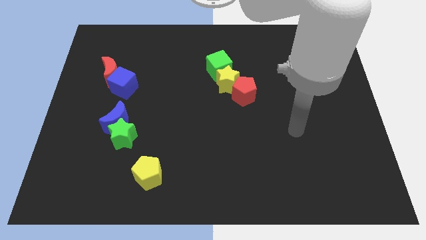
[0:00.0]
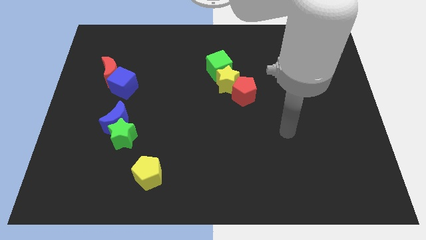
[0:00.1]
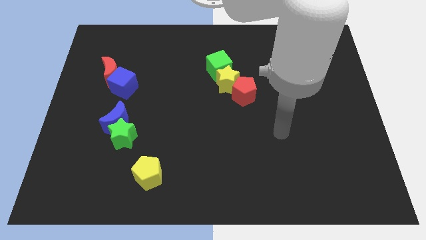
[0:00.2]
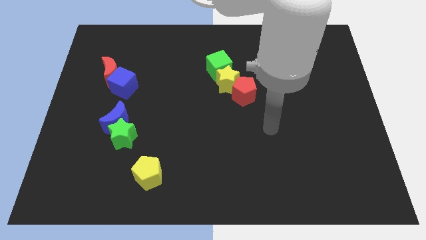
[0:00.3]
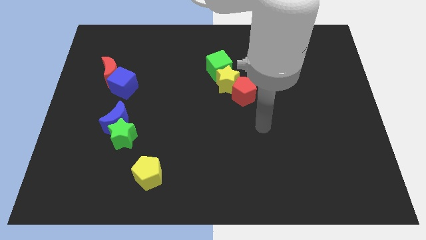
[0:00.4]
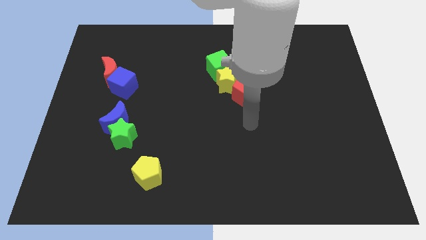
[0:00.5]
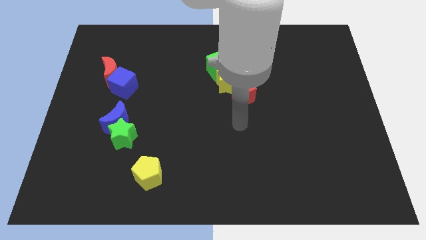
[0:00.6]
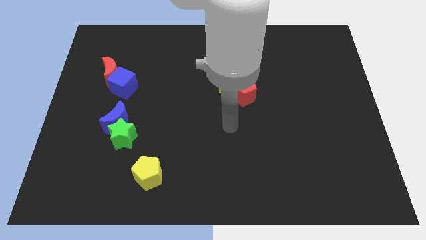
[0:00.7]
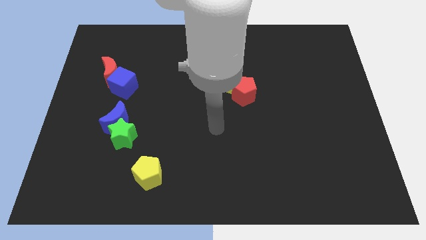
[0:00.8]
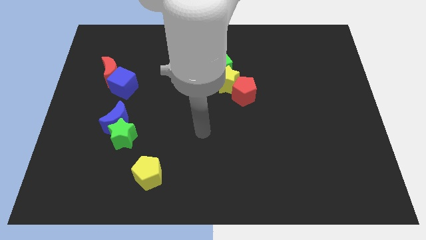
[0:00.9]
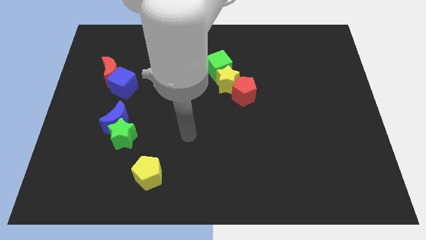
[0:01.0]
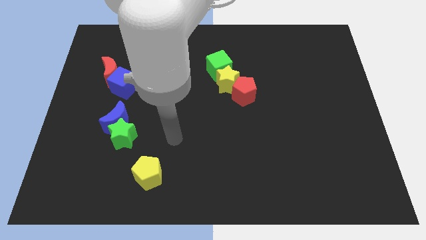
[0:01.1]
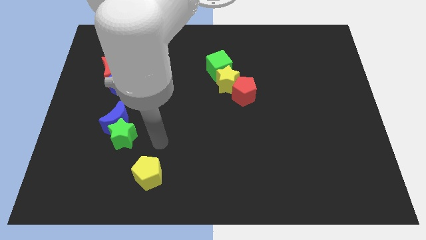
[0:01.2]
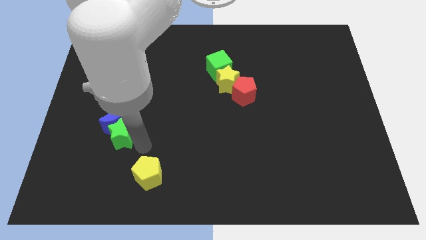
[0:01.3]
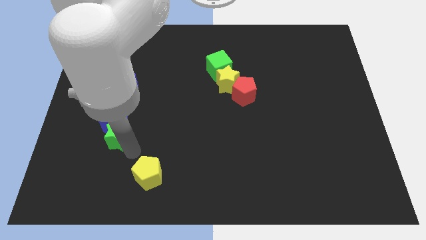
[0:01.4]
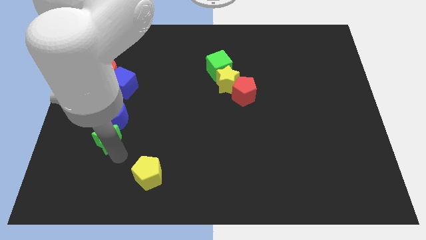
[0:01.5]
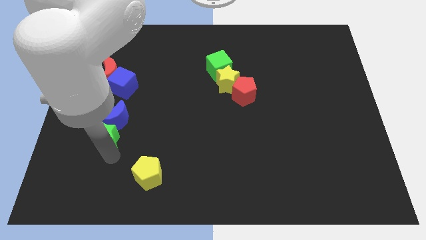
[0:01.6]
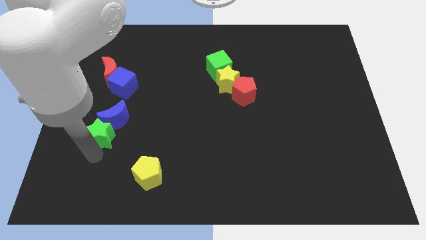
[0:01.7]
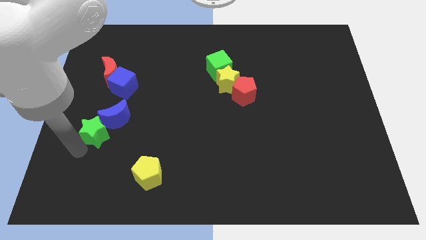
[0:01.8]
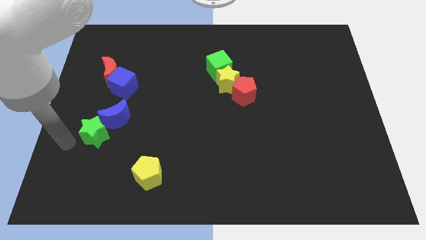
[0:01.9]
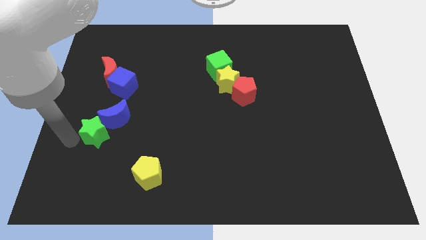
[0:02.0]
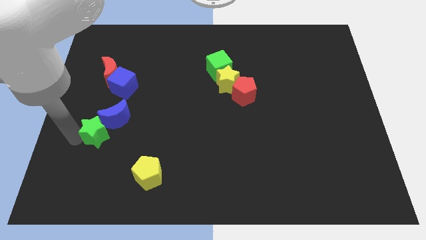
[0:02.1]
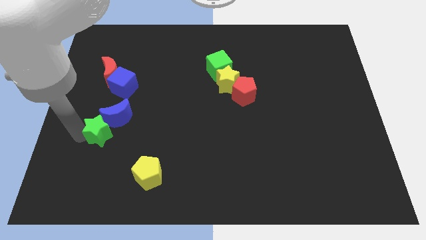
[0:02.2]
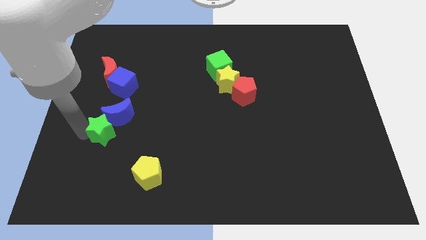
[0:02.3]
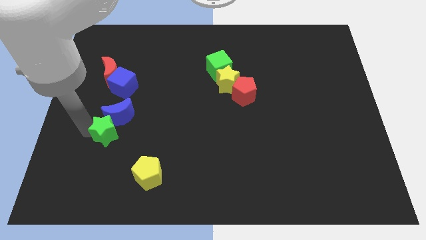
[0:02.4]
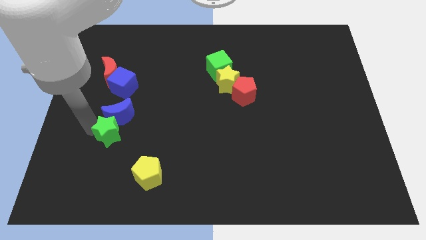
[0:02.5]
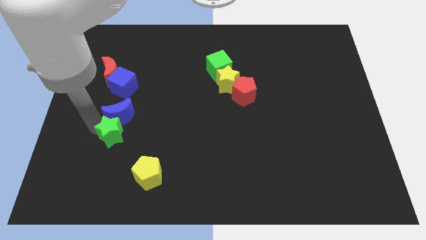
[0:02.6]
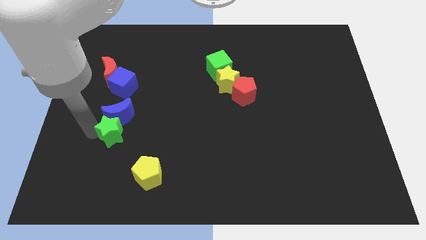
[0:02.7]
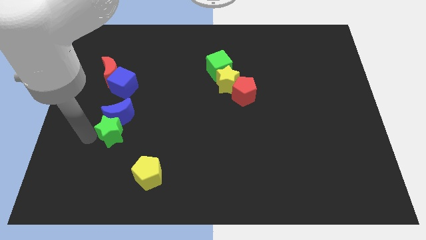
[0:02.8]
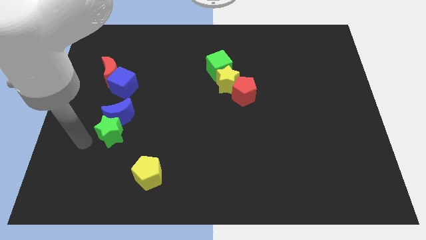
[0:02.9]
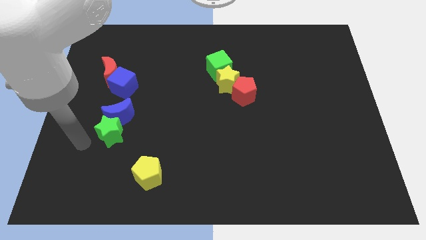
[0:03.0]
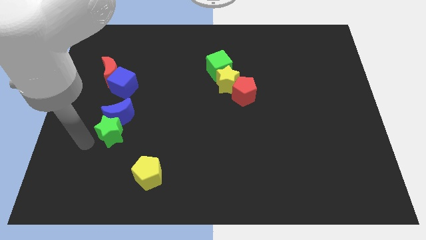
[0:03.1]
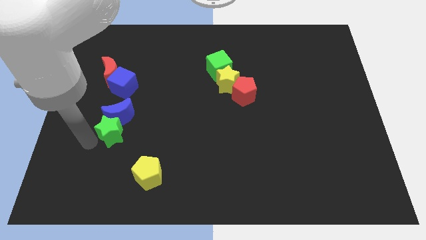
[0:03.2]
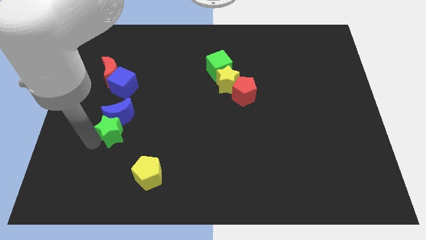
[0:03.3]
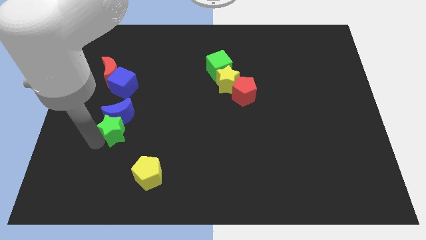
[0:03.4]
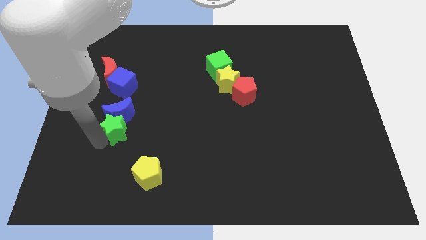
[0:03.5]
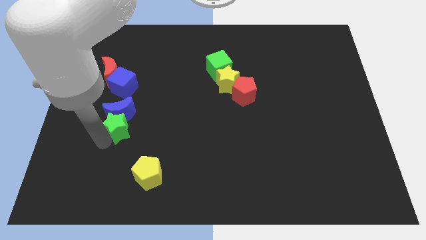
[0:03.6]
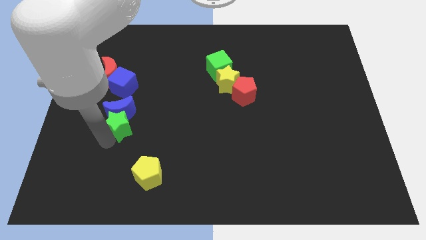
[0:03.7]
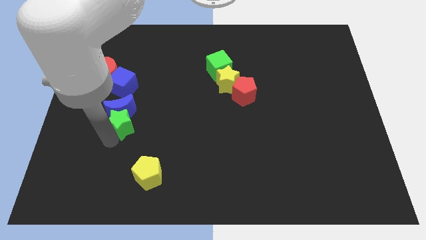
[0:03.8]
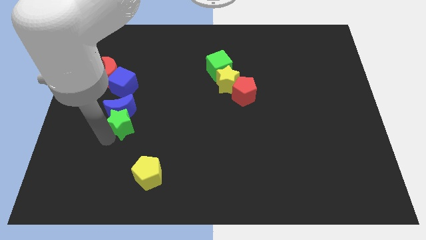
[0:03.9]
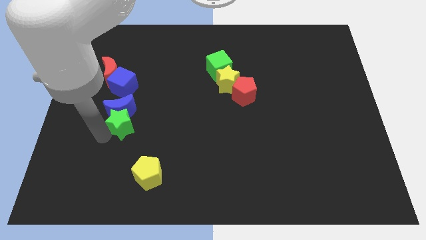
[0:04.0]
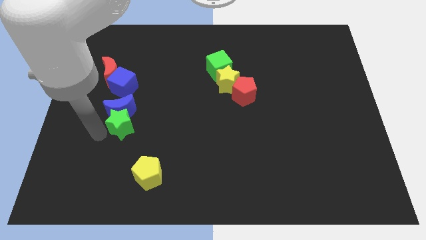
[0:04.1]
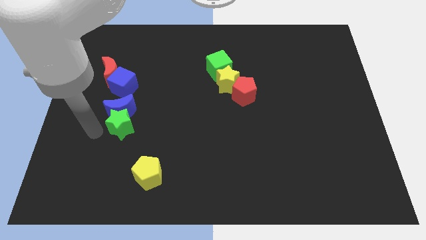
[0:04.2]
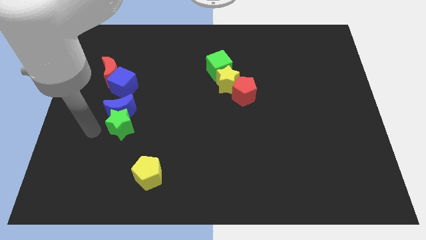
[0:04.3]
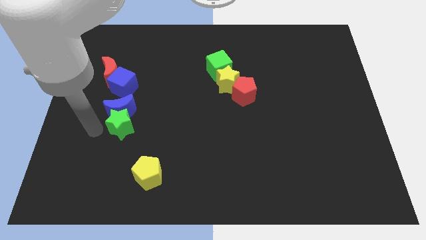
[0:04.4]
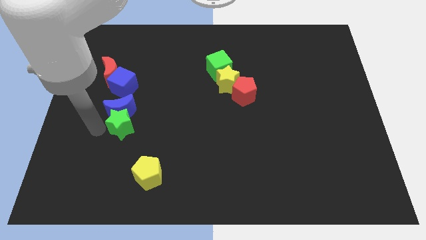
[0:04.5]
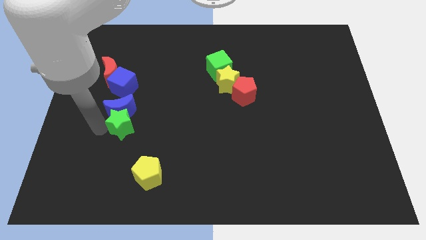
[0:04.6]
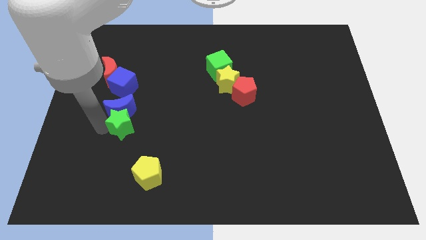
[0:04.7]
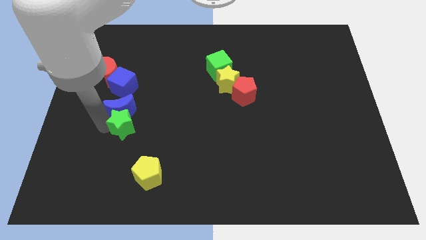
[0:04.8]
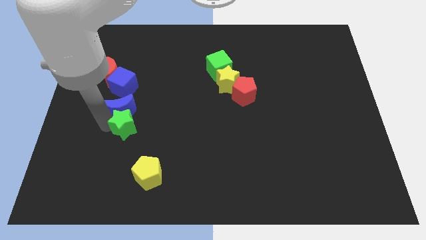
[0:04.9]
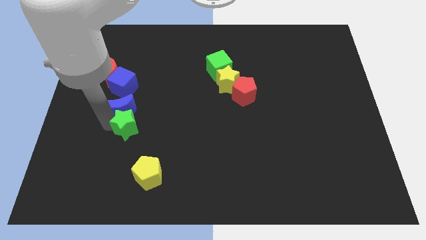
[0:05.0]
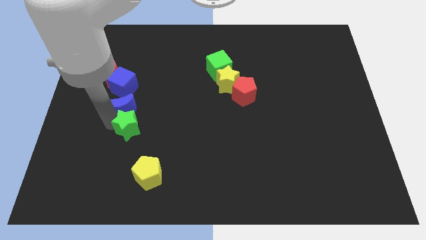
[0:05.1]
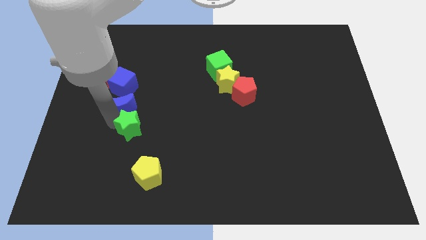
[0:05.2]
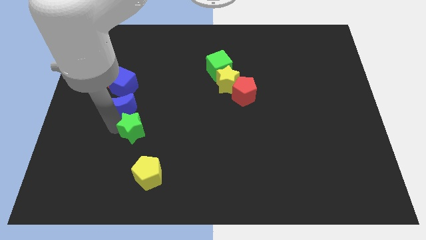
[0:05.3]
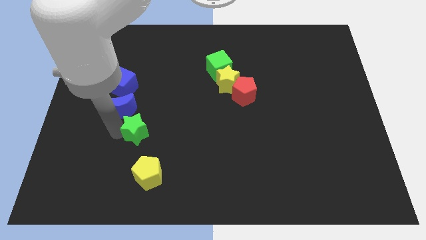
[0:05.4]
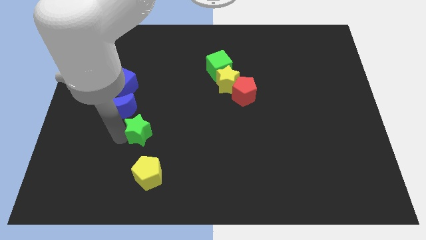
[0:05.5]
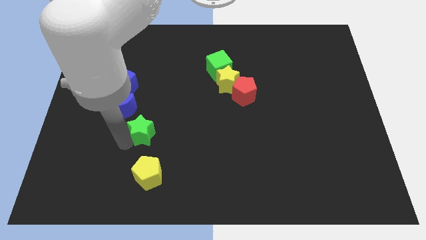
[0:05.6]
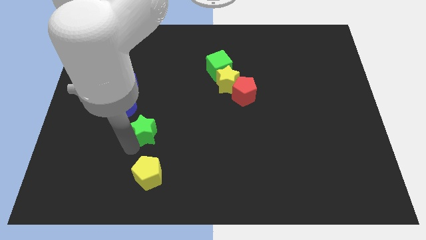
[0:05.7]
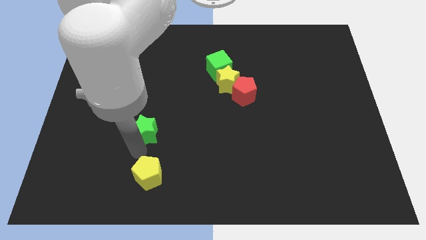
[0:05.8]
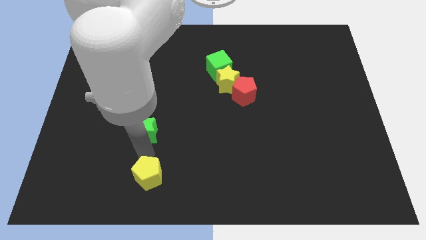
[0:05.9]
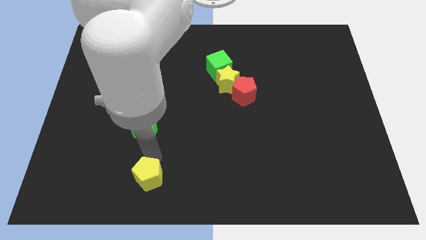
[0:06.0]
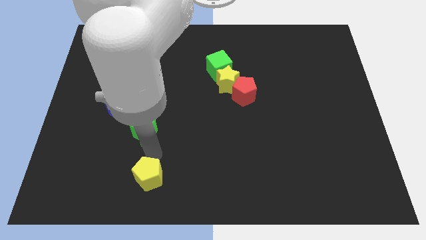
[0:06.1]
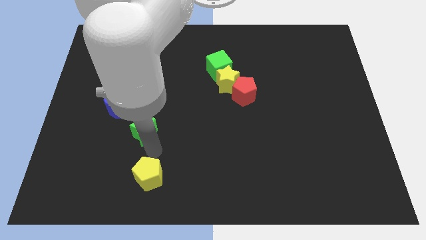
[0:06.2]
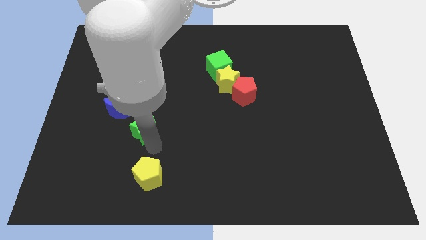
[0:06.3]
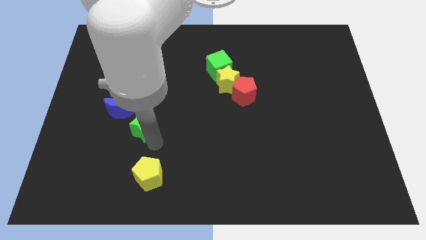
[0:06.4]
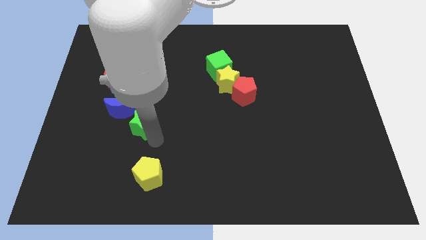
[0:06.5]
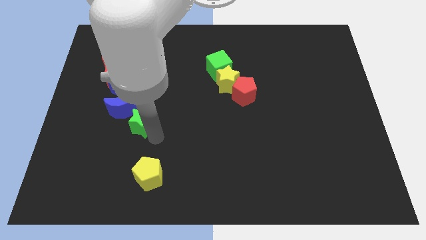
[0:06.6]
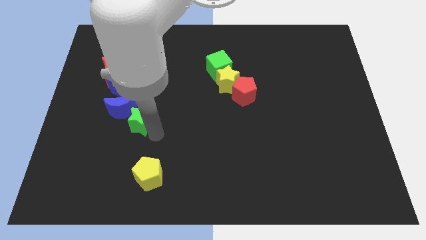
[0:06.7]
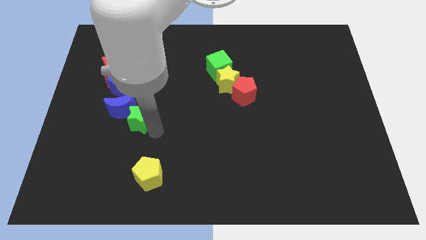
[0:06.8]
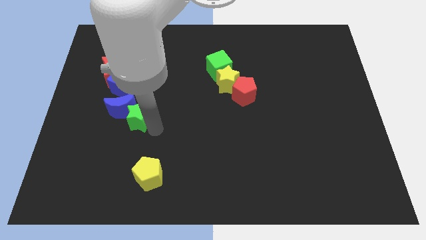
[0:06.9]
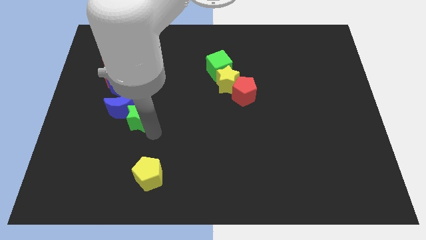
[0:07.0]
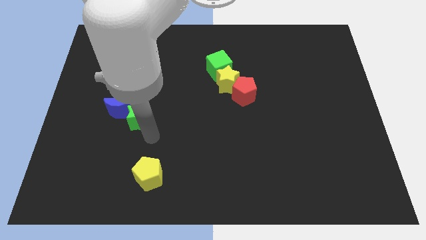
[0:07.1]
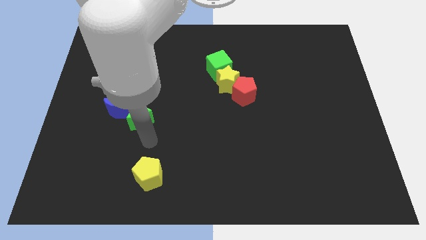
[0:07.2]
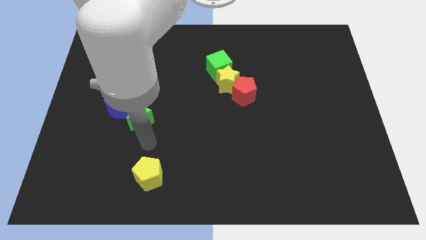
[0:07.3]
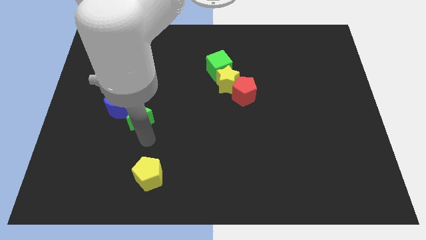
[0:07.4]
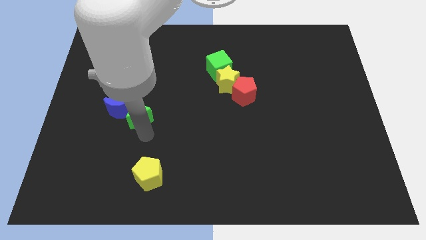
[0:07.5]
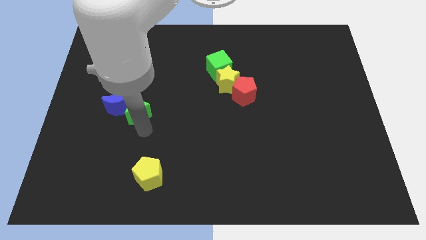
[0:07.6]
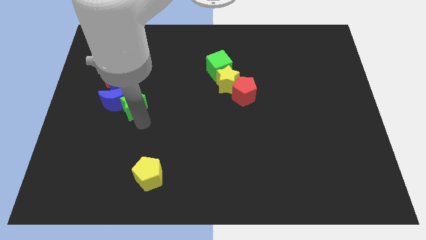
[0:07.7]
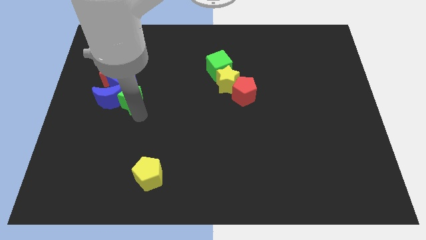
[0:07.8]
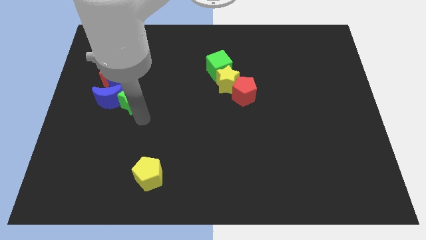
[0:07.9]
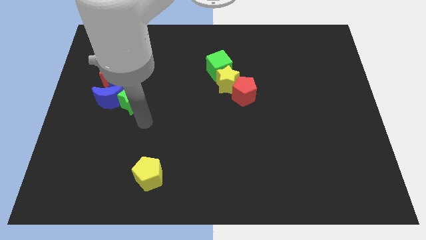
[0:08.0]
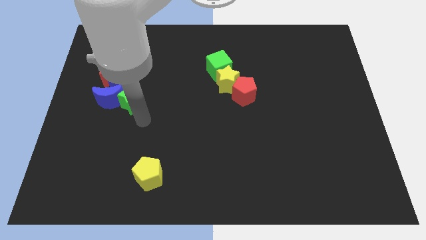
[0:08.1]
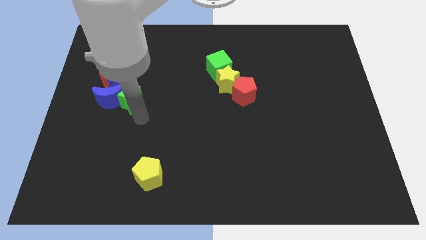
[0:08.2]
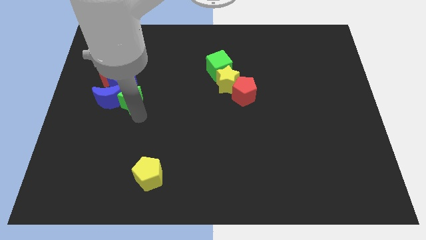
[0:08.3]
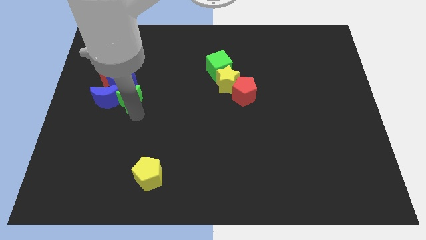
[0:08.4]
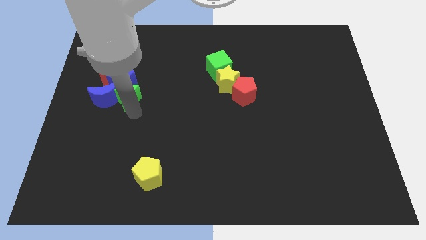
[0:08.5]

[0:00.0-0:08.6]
move the green star towards the blue cube
